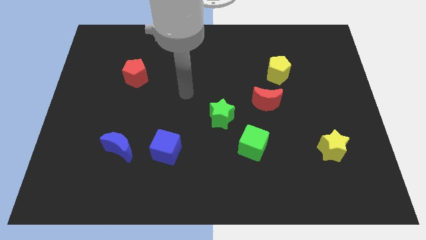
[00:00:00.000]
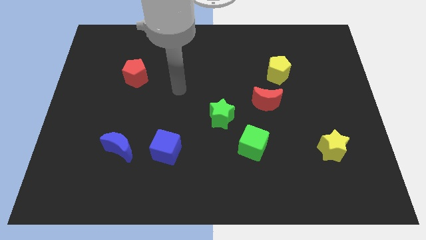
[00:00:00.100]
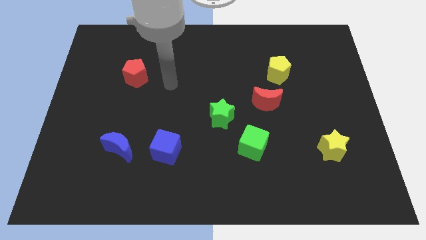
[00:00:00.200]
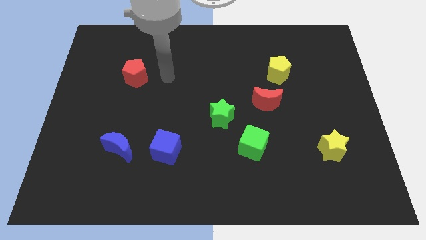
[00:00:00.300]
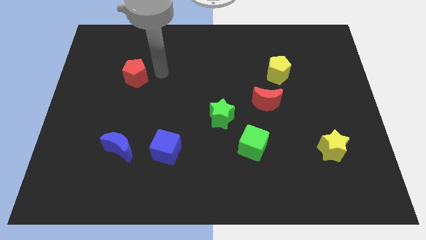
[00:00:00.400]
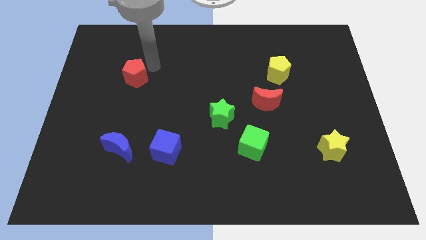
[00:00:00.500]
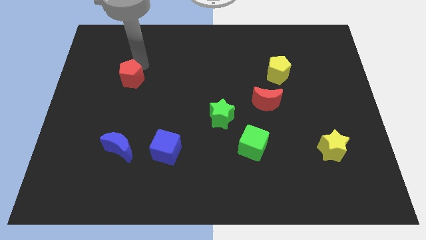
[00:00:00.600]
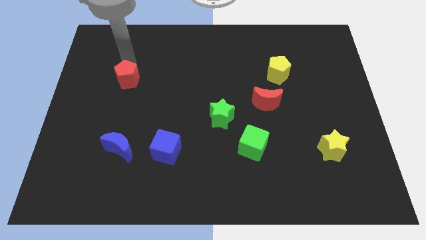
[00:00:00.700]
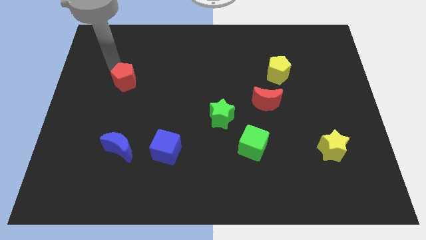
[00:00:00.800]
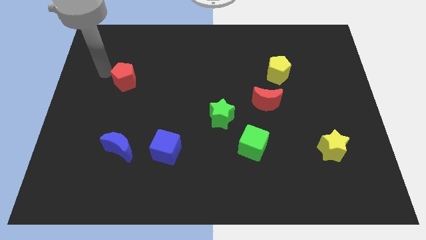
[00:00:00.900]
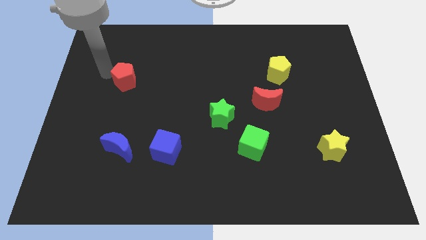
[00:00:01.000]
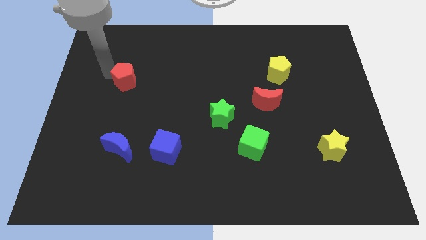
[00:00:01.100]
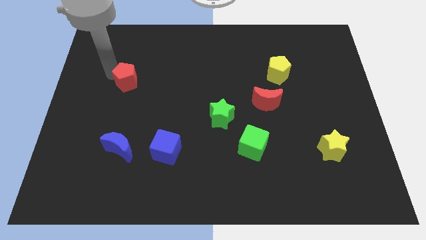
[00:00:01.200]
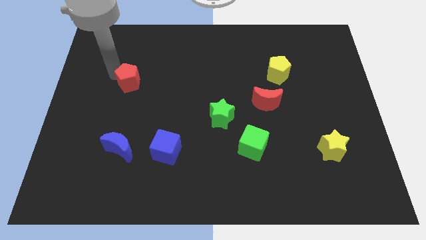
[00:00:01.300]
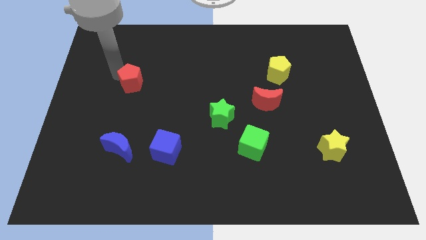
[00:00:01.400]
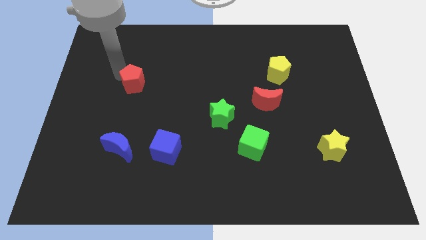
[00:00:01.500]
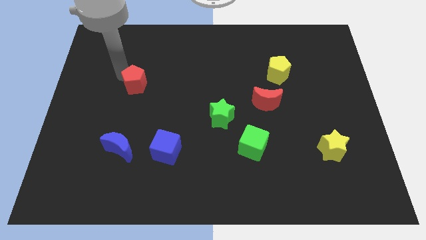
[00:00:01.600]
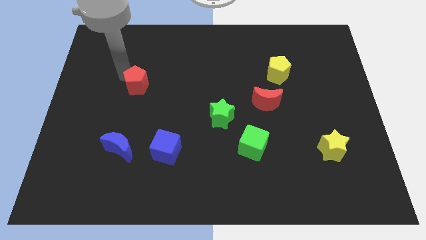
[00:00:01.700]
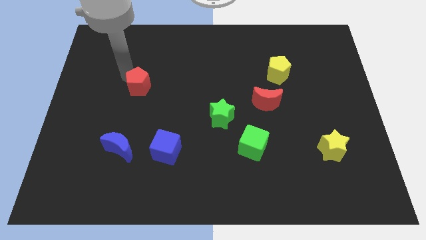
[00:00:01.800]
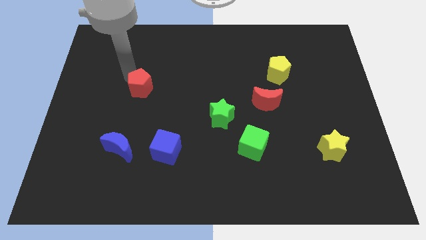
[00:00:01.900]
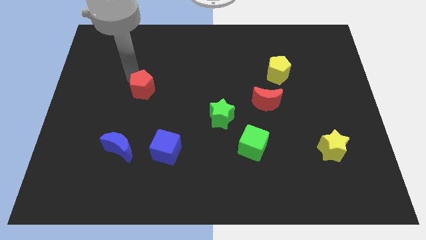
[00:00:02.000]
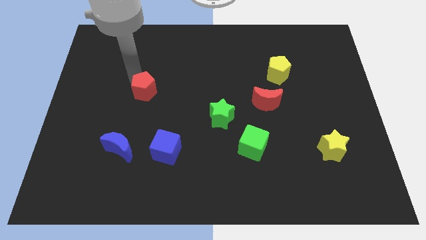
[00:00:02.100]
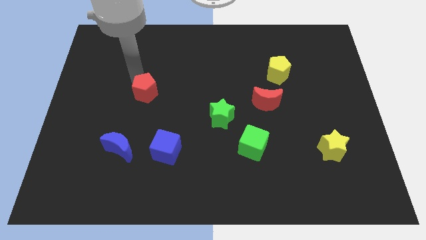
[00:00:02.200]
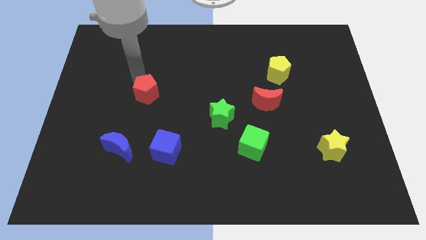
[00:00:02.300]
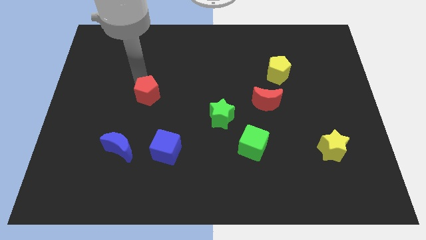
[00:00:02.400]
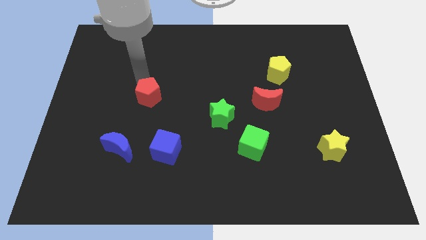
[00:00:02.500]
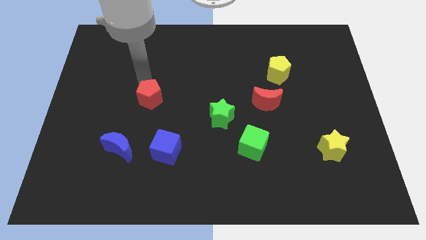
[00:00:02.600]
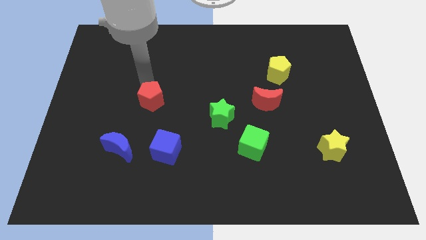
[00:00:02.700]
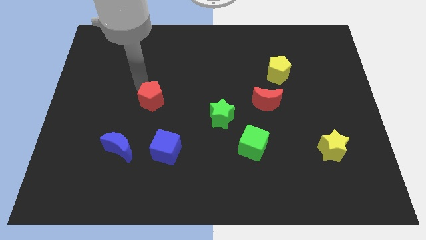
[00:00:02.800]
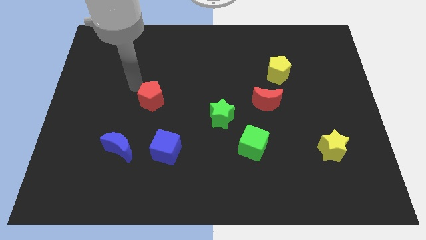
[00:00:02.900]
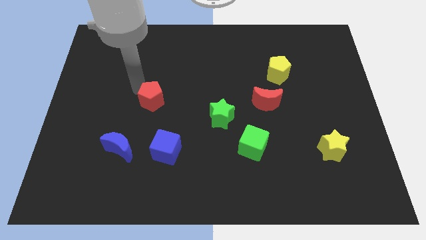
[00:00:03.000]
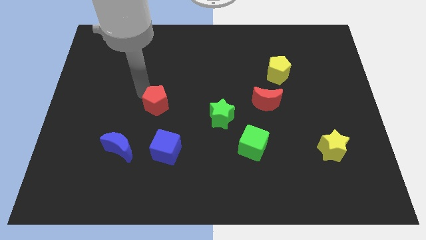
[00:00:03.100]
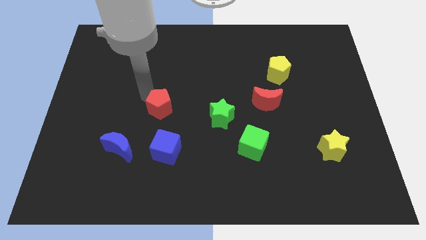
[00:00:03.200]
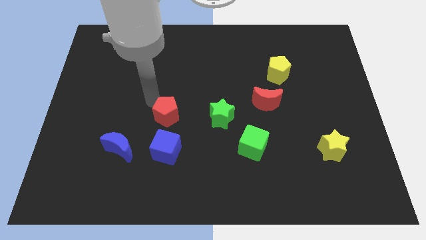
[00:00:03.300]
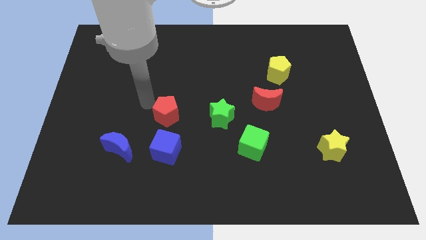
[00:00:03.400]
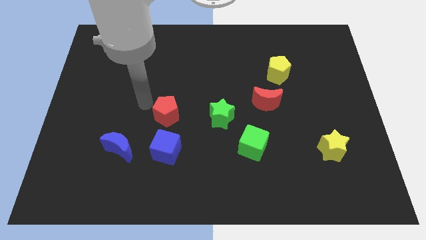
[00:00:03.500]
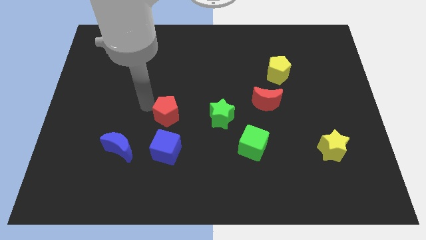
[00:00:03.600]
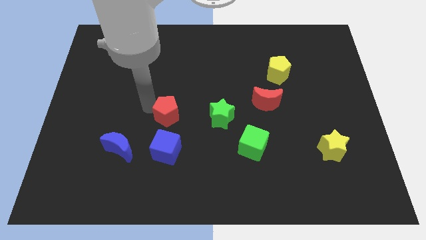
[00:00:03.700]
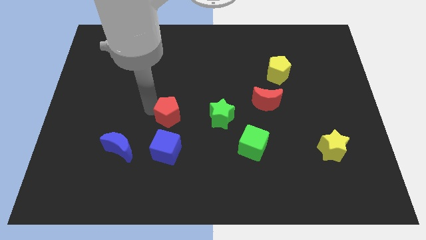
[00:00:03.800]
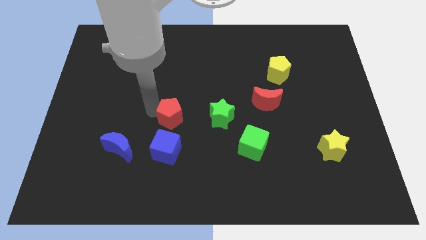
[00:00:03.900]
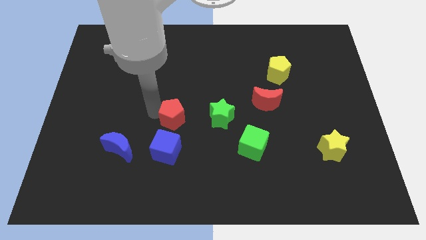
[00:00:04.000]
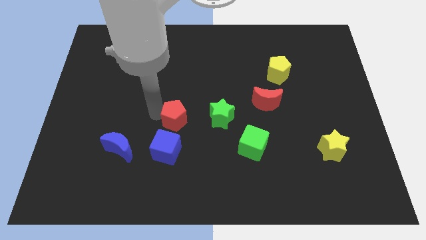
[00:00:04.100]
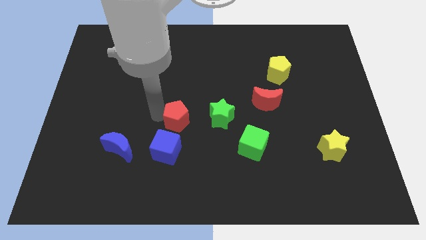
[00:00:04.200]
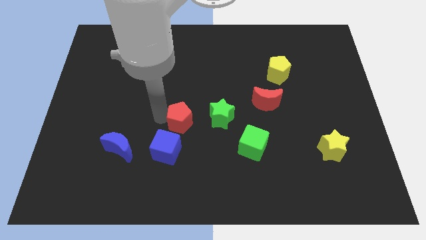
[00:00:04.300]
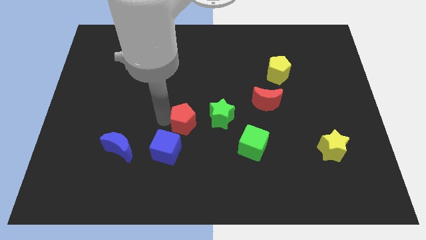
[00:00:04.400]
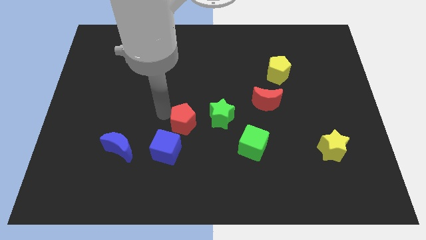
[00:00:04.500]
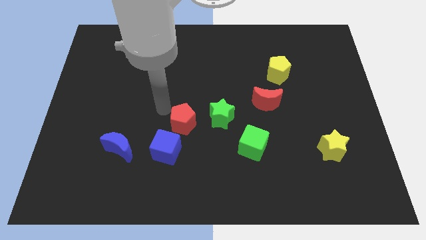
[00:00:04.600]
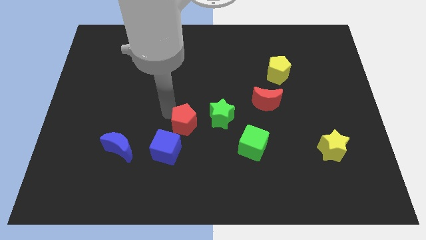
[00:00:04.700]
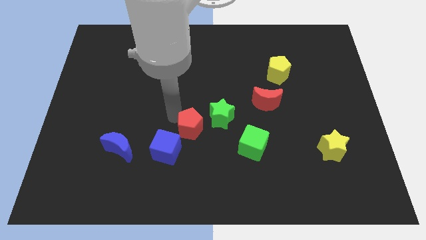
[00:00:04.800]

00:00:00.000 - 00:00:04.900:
move the red pentagon down and right

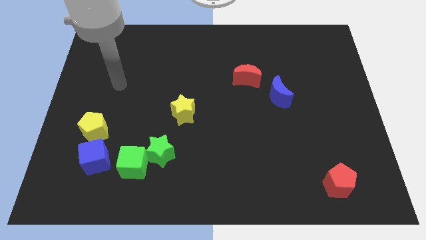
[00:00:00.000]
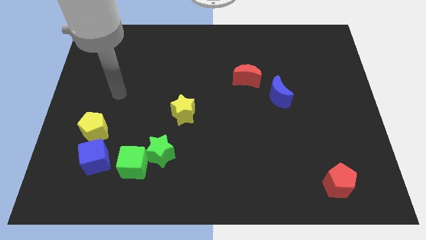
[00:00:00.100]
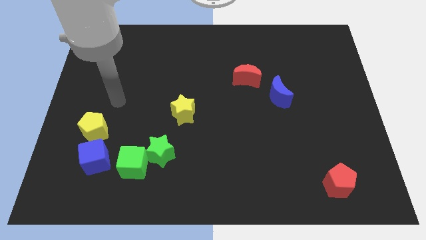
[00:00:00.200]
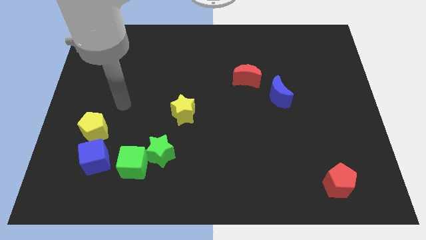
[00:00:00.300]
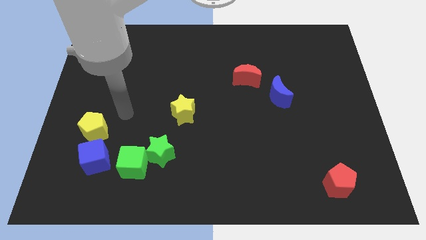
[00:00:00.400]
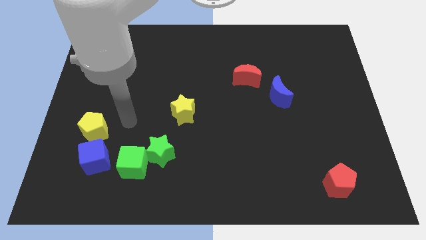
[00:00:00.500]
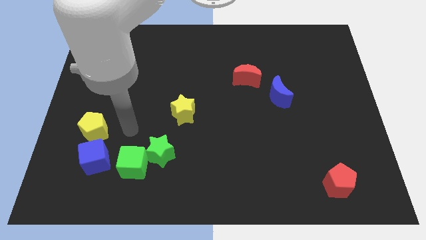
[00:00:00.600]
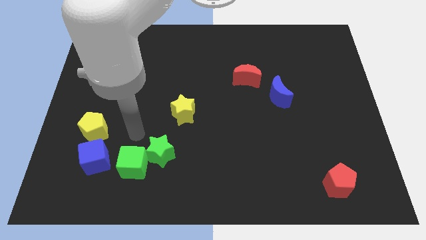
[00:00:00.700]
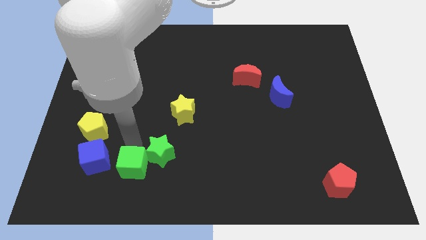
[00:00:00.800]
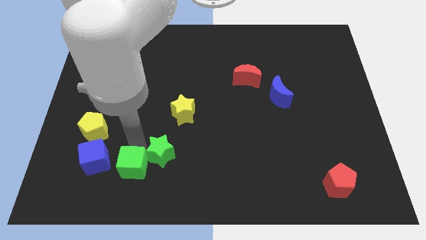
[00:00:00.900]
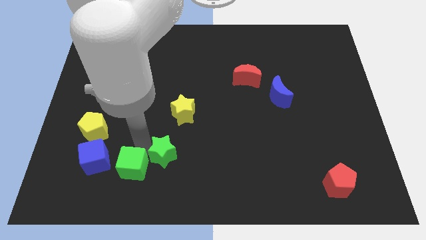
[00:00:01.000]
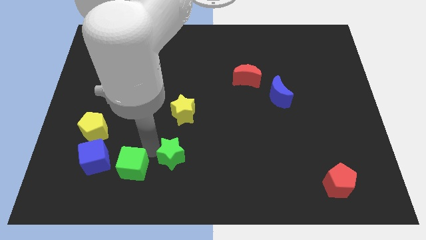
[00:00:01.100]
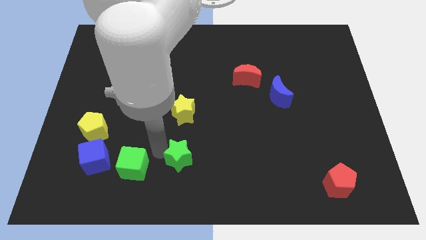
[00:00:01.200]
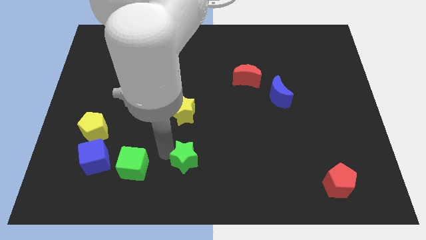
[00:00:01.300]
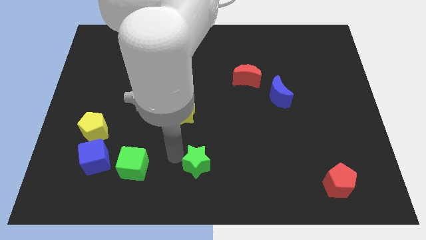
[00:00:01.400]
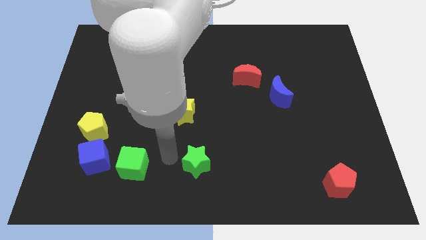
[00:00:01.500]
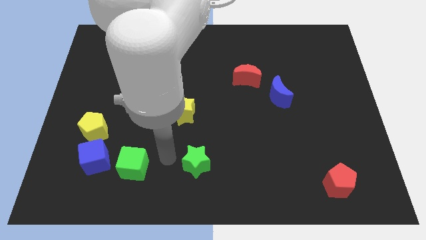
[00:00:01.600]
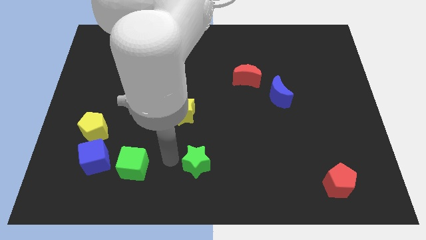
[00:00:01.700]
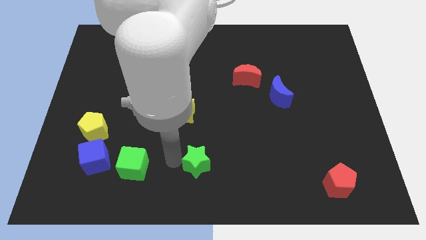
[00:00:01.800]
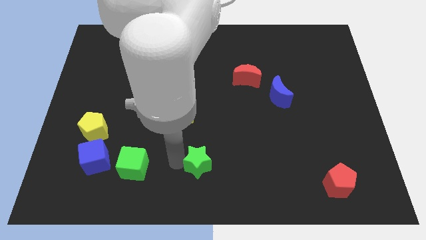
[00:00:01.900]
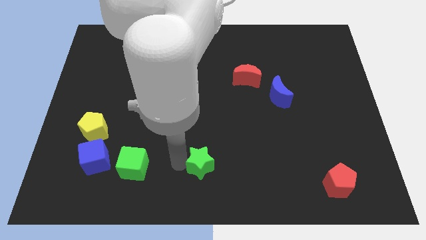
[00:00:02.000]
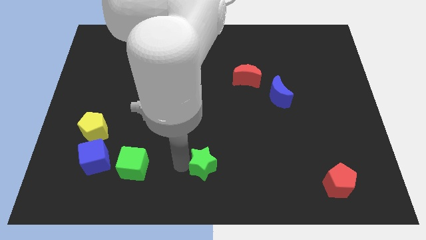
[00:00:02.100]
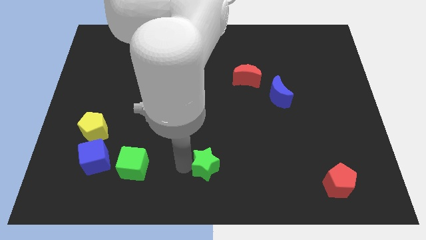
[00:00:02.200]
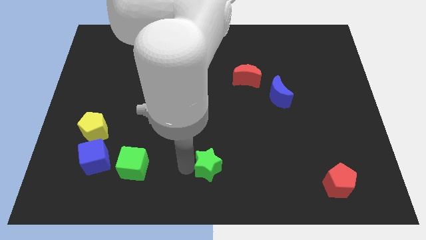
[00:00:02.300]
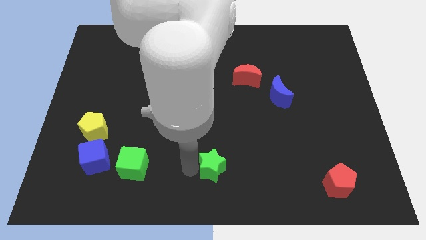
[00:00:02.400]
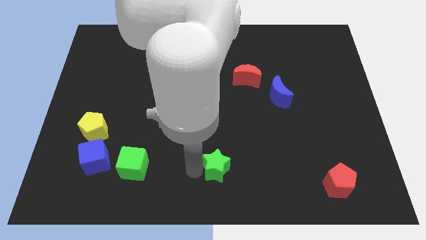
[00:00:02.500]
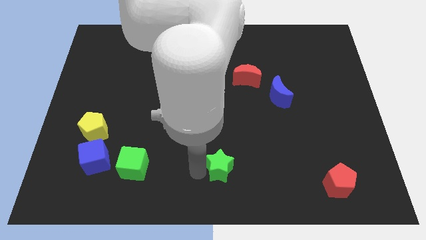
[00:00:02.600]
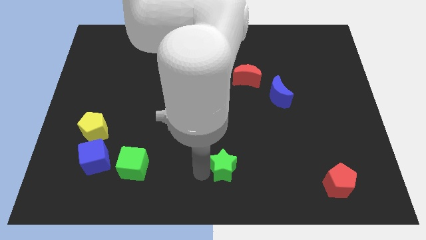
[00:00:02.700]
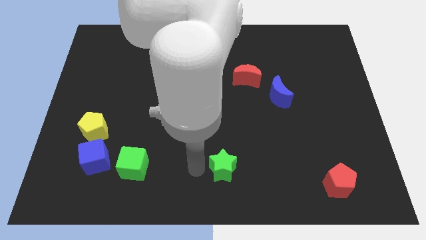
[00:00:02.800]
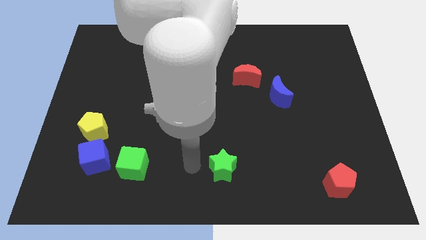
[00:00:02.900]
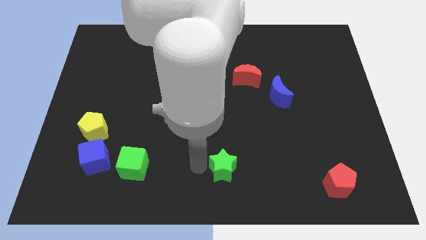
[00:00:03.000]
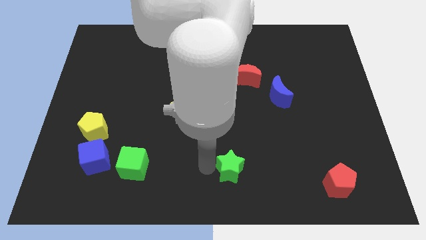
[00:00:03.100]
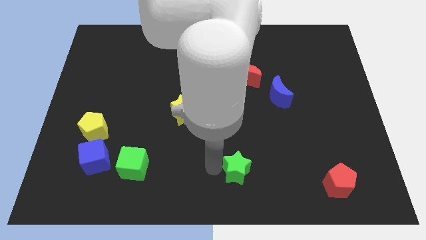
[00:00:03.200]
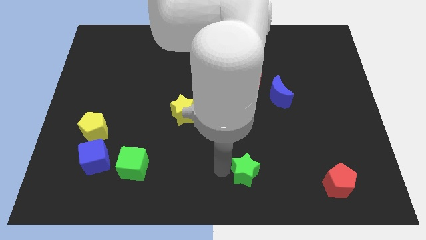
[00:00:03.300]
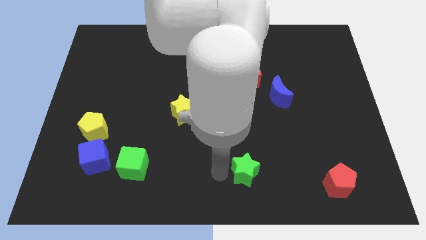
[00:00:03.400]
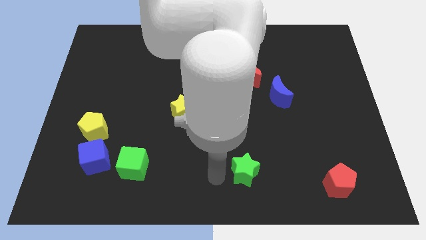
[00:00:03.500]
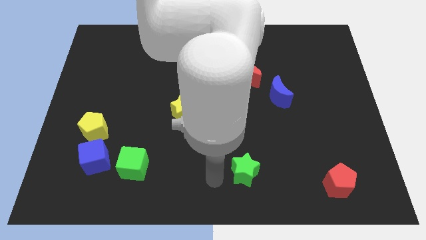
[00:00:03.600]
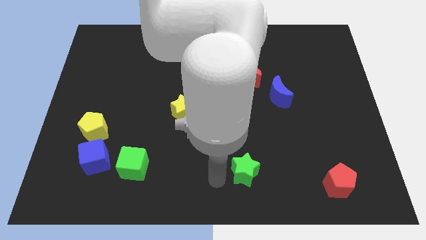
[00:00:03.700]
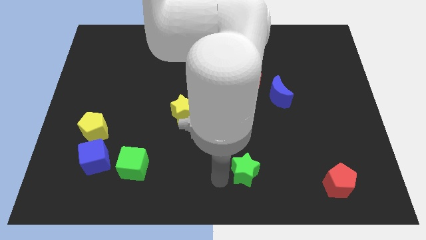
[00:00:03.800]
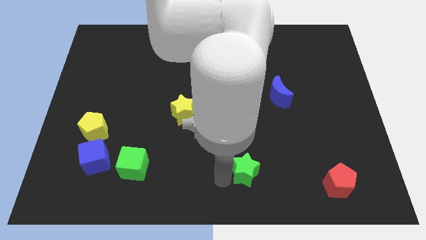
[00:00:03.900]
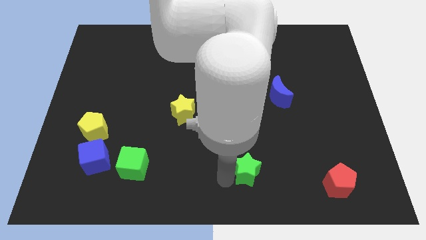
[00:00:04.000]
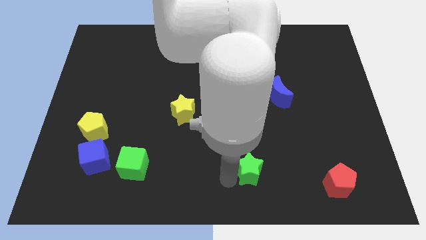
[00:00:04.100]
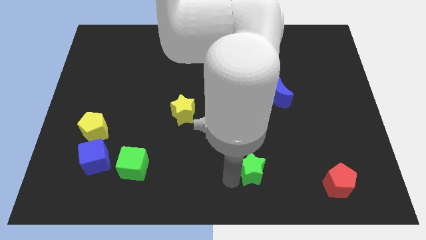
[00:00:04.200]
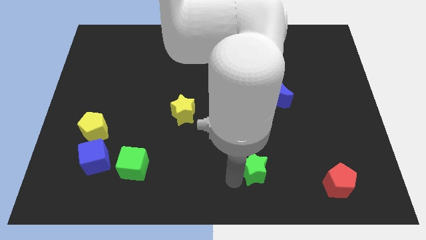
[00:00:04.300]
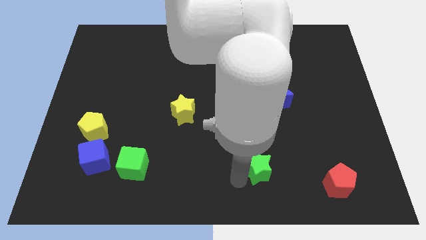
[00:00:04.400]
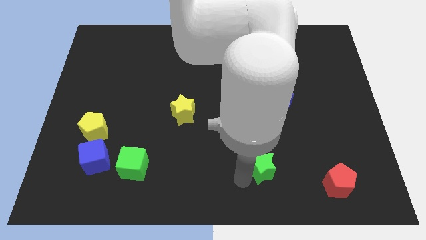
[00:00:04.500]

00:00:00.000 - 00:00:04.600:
slide the green star to the right
